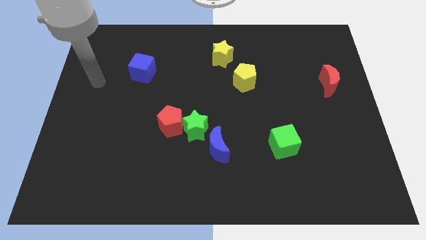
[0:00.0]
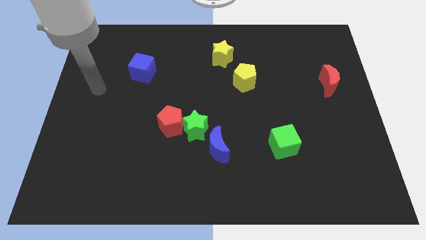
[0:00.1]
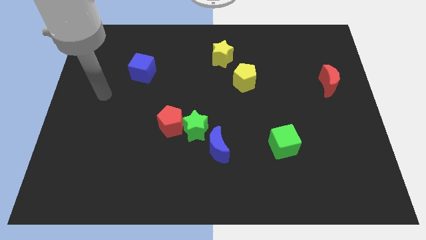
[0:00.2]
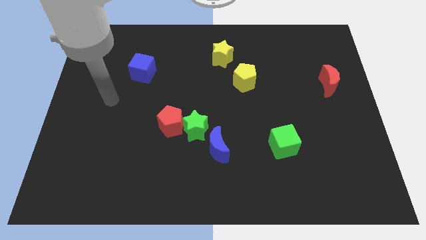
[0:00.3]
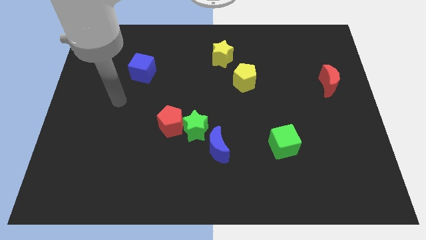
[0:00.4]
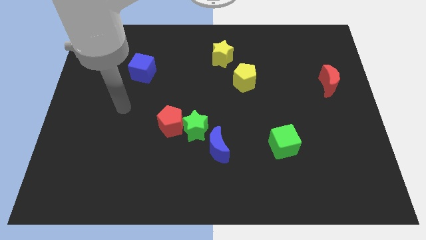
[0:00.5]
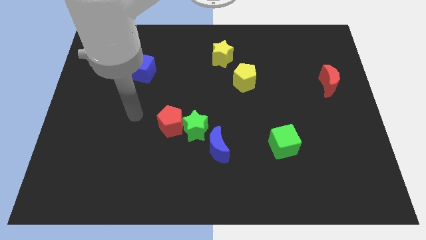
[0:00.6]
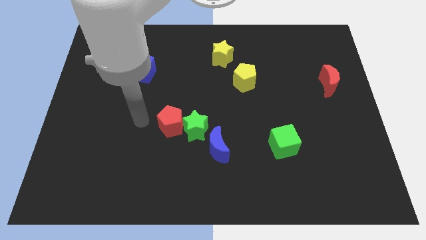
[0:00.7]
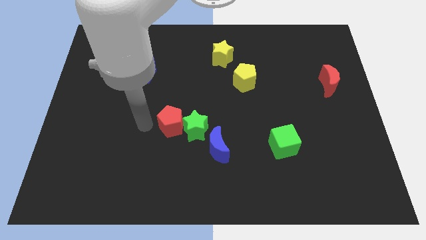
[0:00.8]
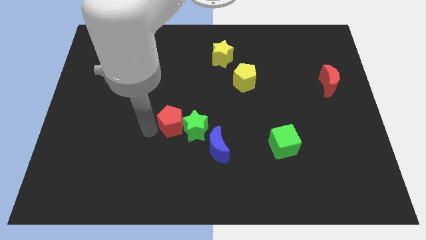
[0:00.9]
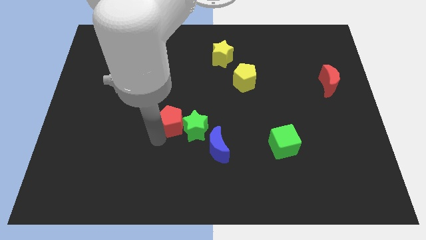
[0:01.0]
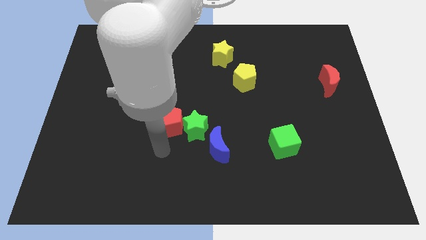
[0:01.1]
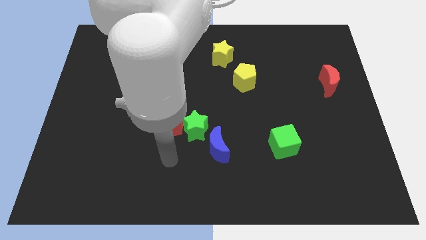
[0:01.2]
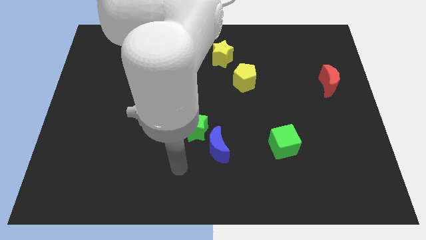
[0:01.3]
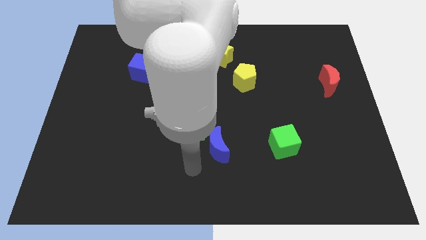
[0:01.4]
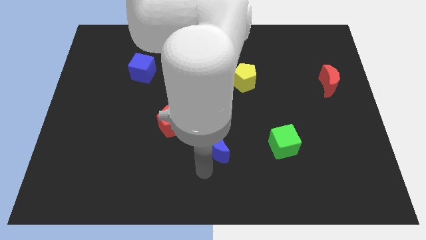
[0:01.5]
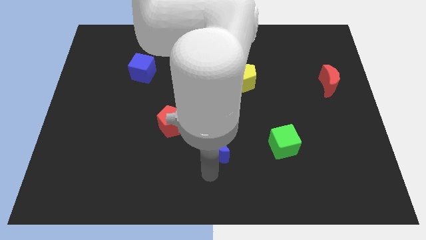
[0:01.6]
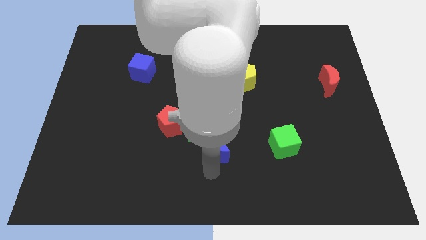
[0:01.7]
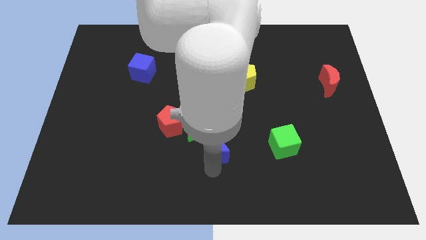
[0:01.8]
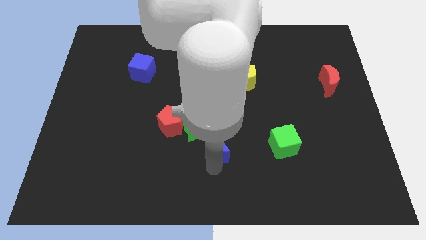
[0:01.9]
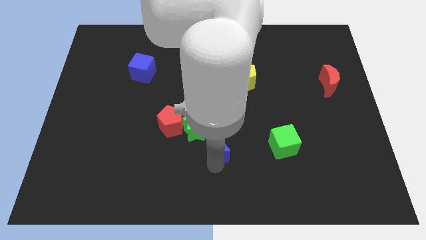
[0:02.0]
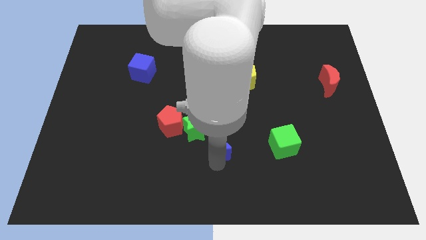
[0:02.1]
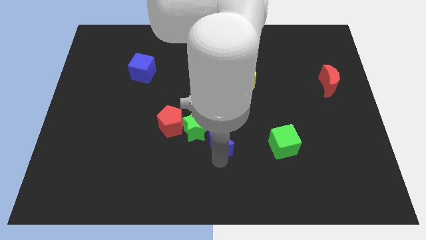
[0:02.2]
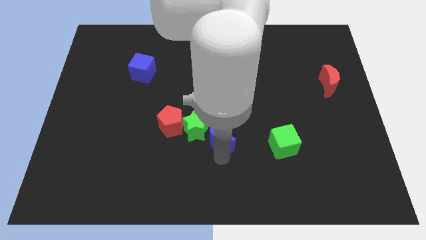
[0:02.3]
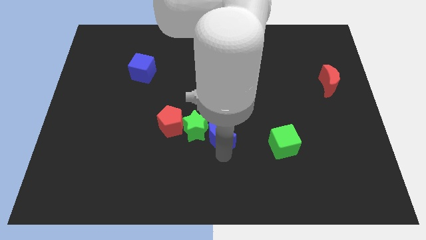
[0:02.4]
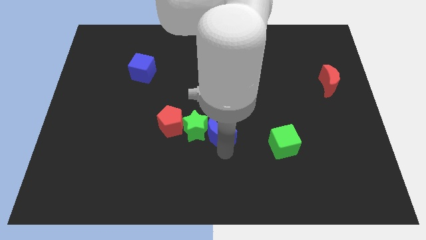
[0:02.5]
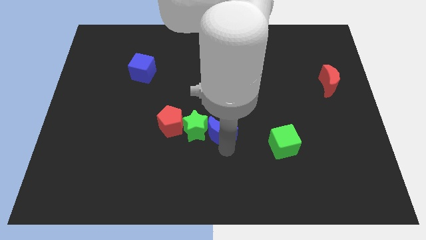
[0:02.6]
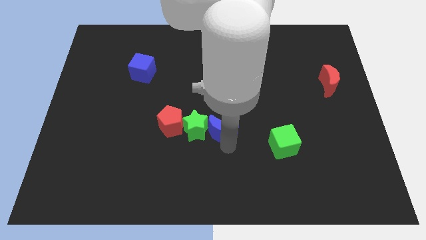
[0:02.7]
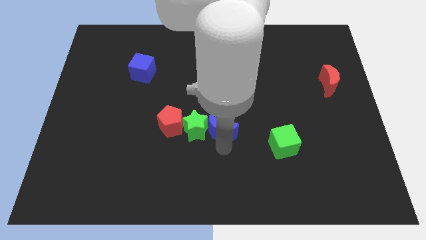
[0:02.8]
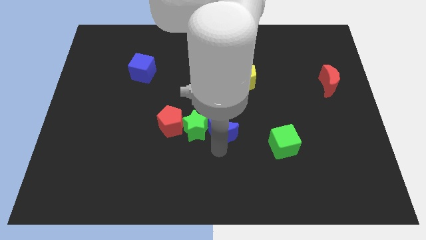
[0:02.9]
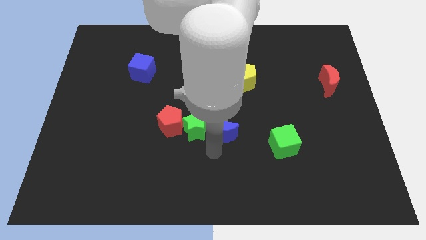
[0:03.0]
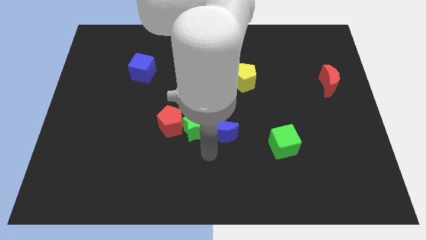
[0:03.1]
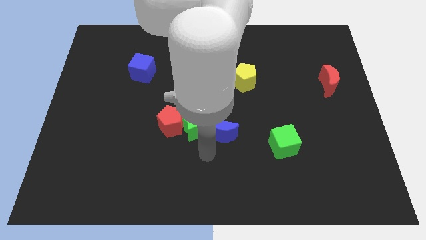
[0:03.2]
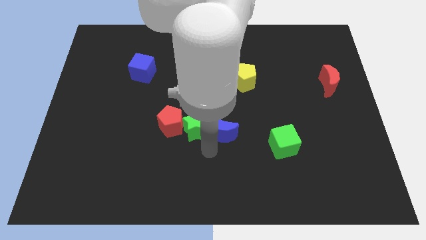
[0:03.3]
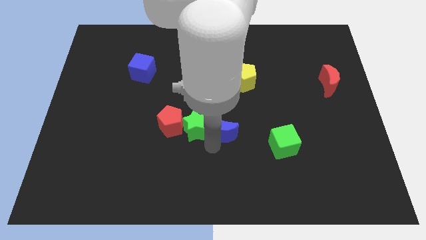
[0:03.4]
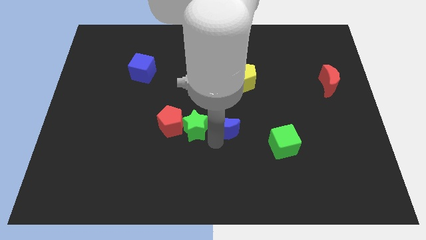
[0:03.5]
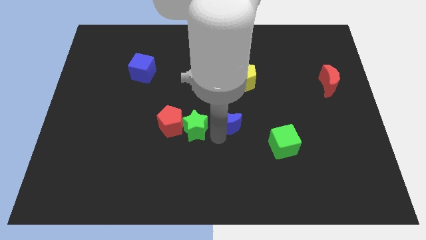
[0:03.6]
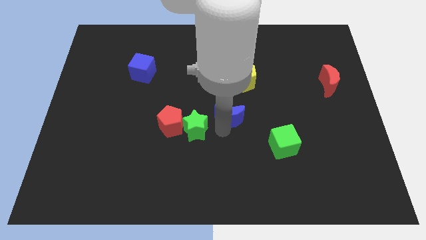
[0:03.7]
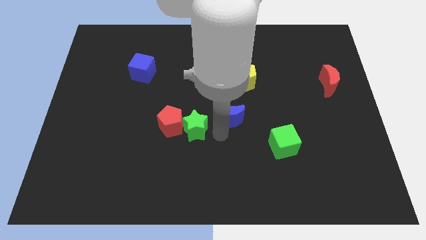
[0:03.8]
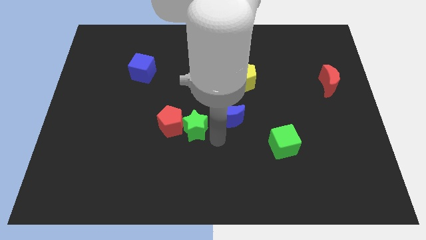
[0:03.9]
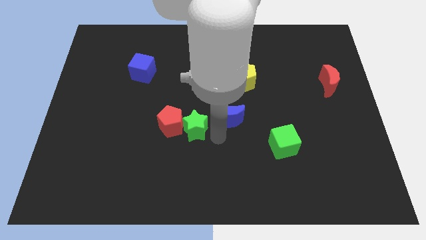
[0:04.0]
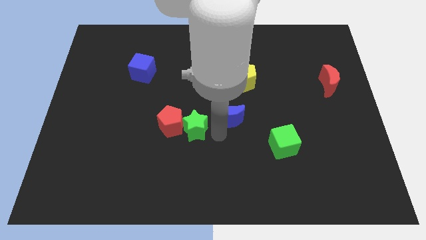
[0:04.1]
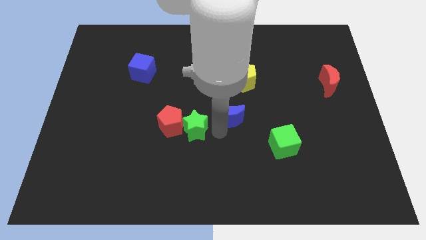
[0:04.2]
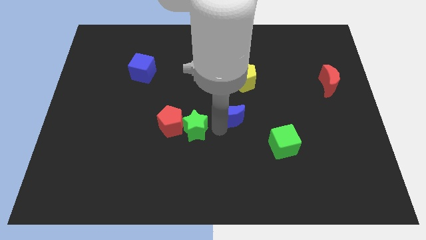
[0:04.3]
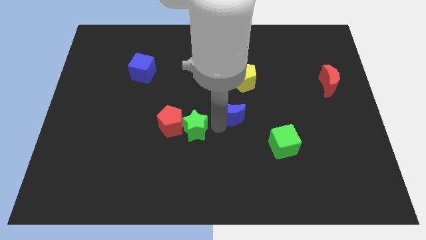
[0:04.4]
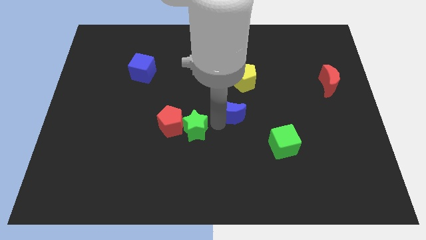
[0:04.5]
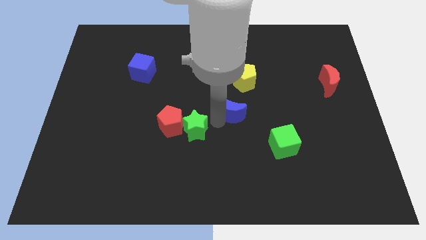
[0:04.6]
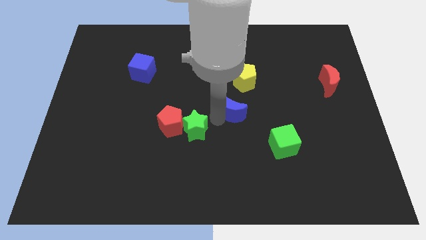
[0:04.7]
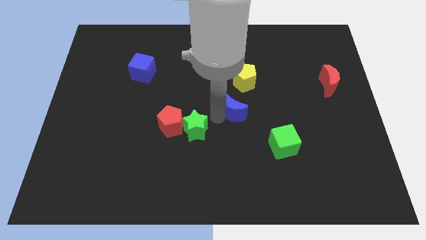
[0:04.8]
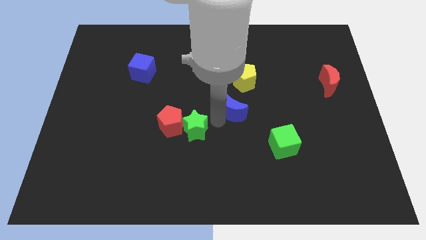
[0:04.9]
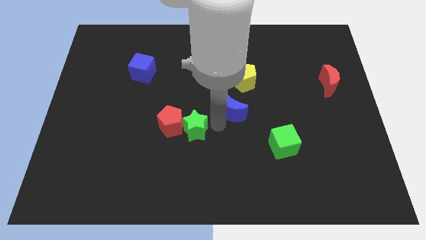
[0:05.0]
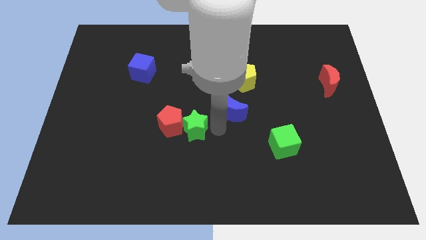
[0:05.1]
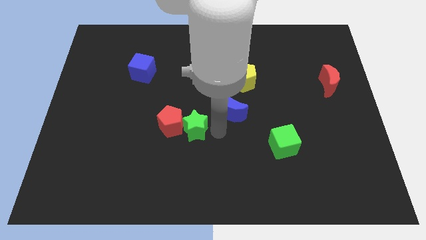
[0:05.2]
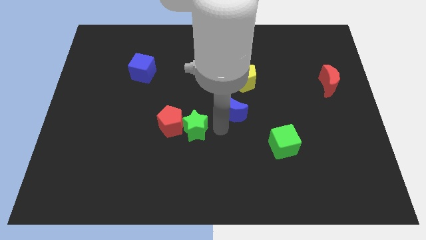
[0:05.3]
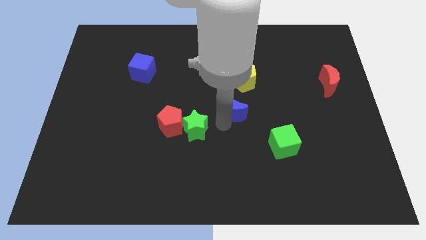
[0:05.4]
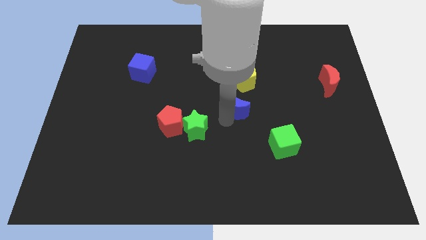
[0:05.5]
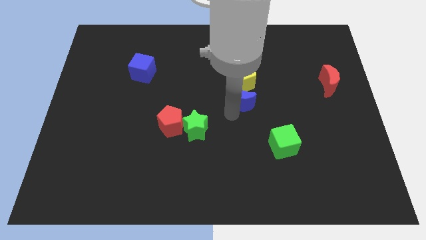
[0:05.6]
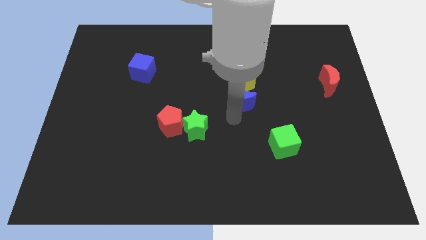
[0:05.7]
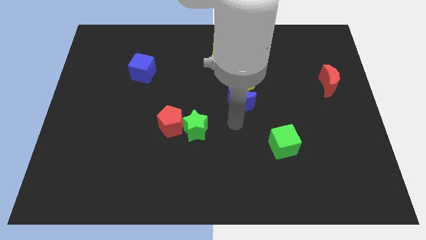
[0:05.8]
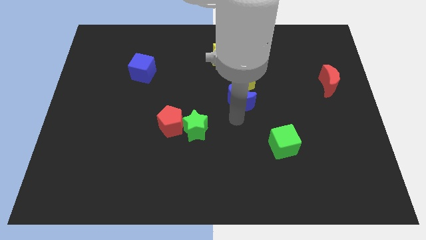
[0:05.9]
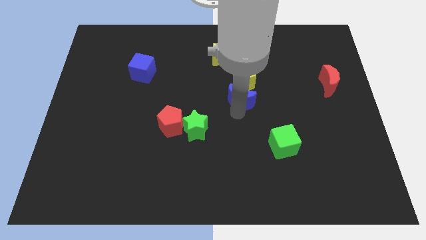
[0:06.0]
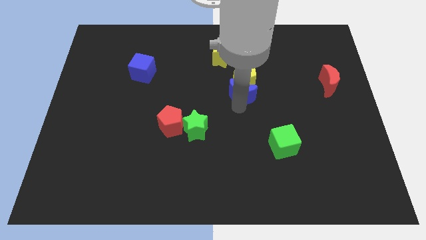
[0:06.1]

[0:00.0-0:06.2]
slide the blue moon next to the yellow pentagon

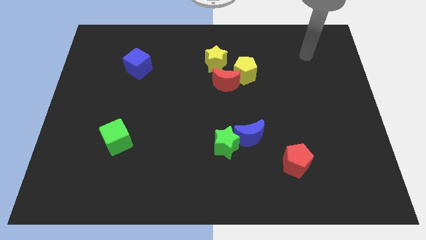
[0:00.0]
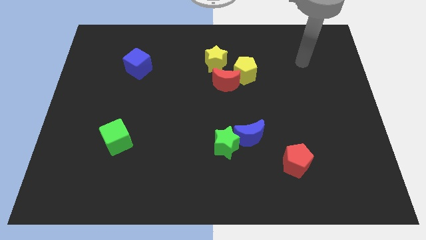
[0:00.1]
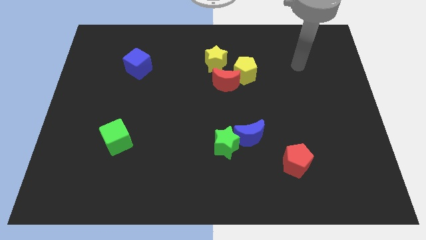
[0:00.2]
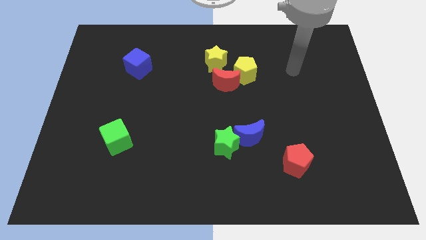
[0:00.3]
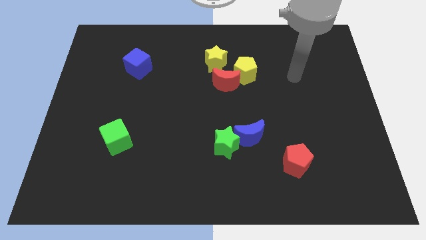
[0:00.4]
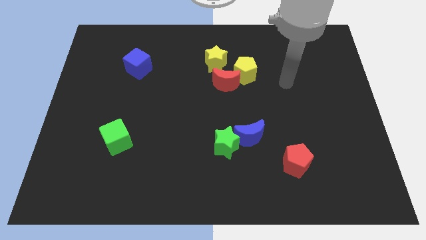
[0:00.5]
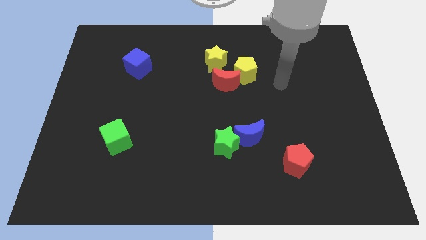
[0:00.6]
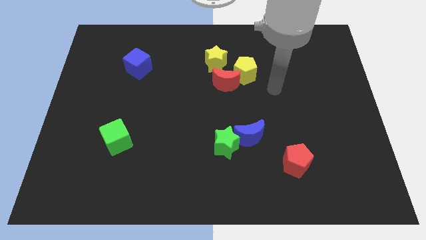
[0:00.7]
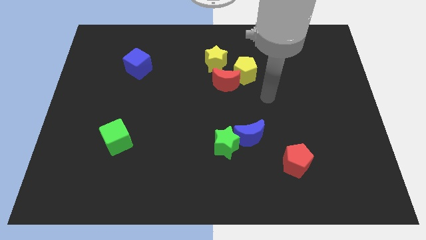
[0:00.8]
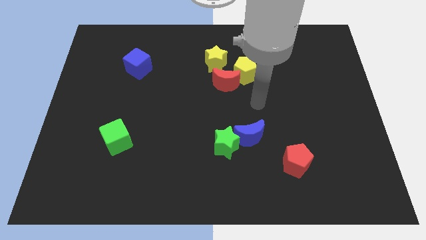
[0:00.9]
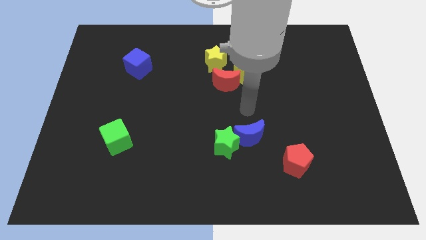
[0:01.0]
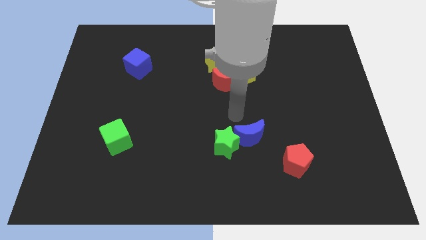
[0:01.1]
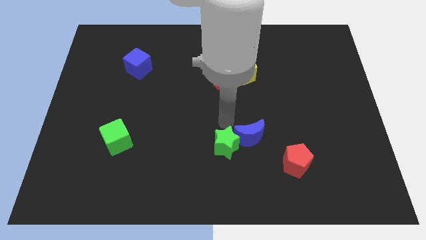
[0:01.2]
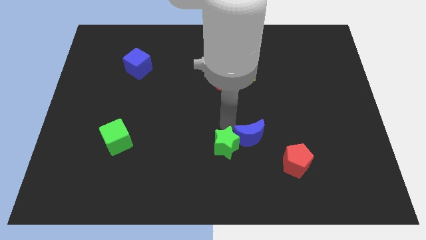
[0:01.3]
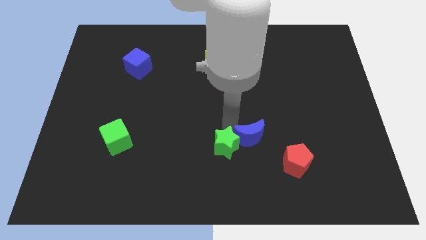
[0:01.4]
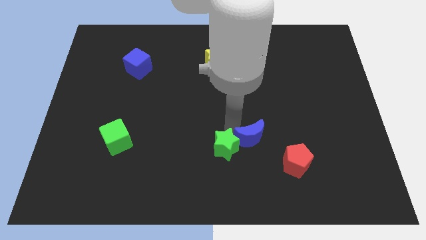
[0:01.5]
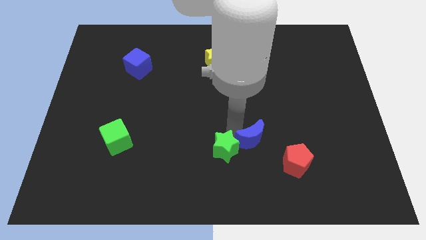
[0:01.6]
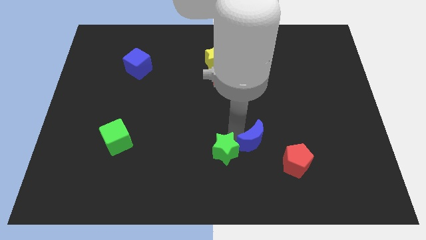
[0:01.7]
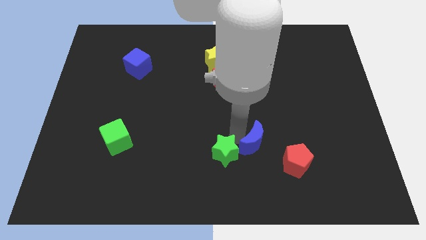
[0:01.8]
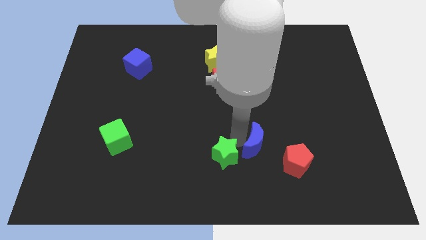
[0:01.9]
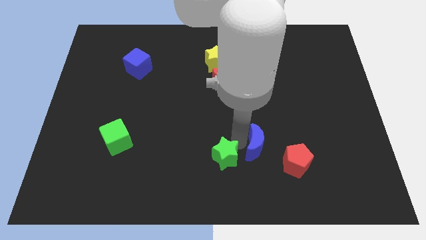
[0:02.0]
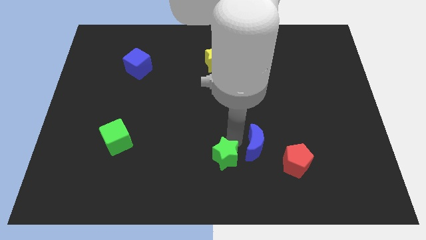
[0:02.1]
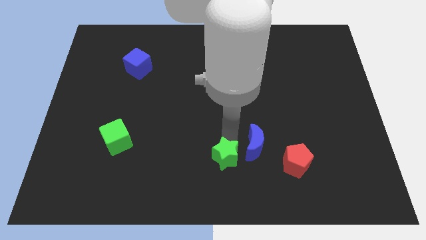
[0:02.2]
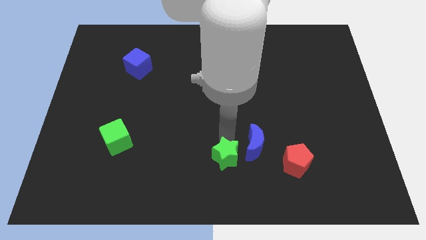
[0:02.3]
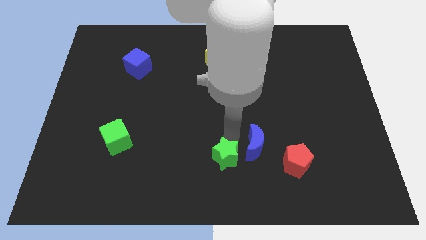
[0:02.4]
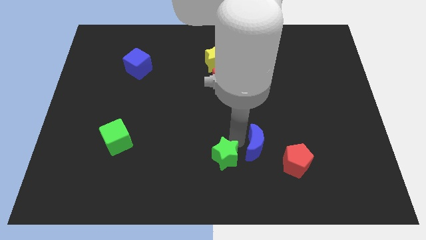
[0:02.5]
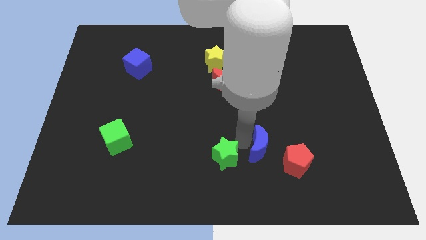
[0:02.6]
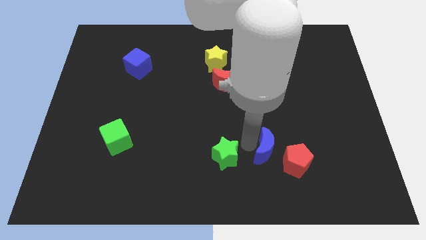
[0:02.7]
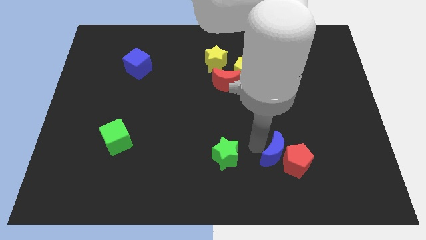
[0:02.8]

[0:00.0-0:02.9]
slide the blue moon towards the red pentagon
